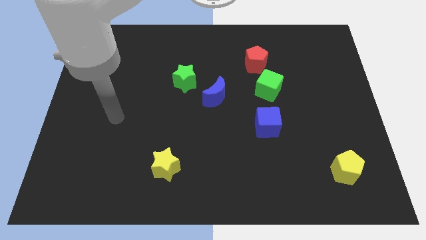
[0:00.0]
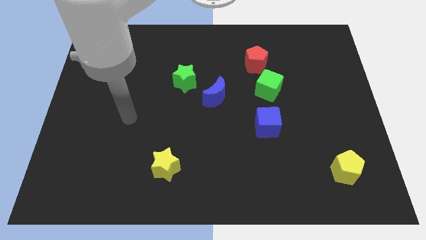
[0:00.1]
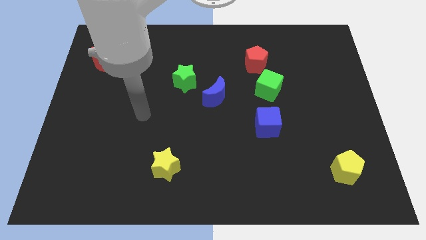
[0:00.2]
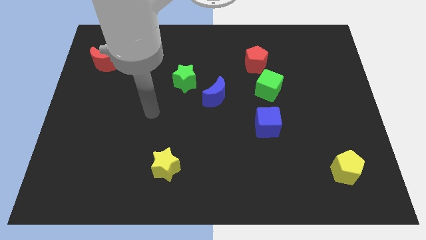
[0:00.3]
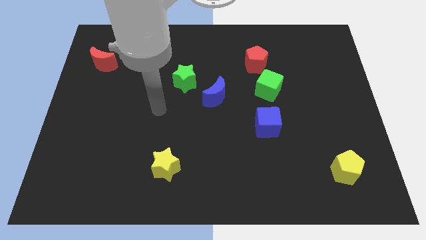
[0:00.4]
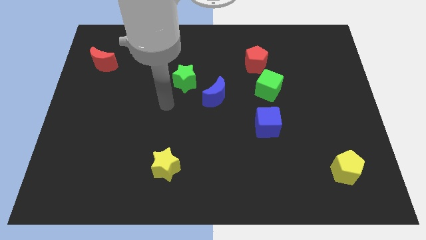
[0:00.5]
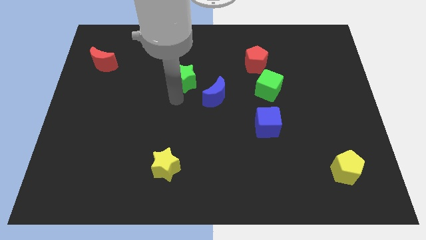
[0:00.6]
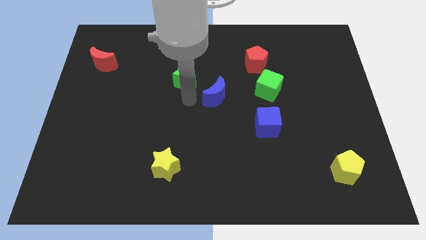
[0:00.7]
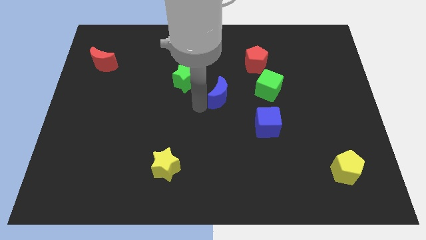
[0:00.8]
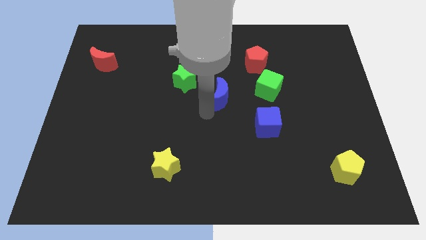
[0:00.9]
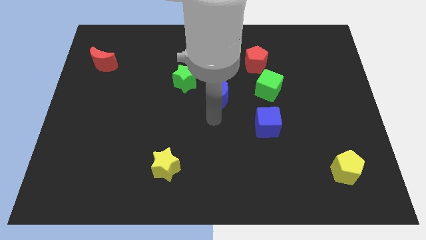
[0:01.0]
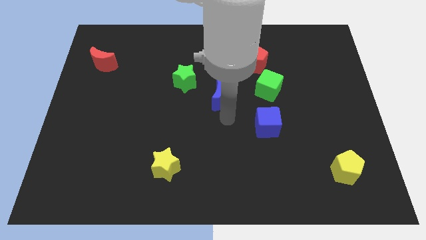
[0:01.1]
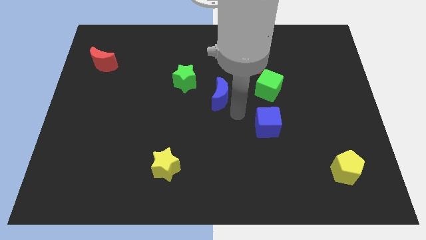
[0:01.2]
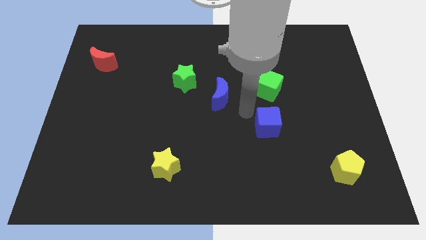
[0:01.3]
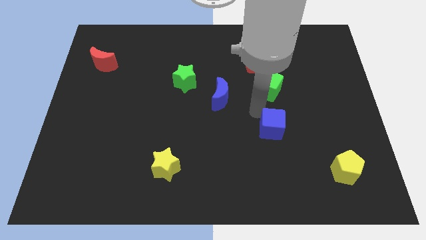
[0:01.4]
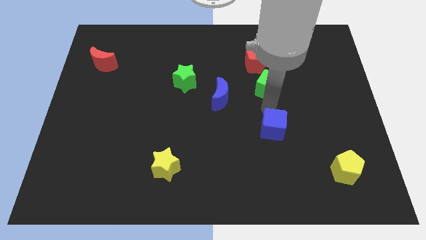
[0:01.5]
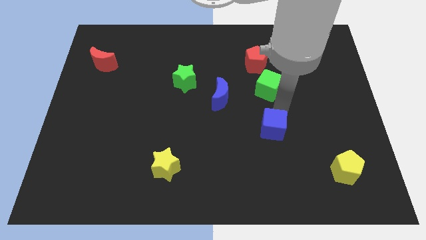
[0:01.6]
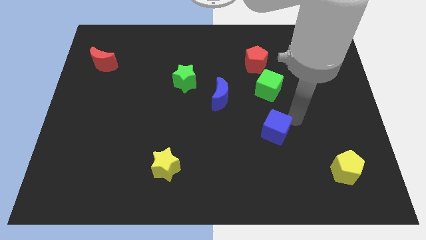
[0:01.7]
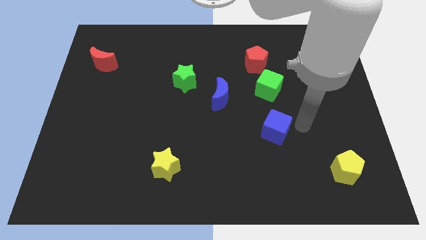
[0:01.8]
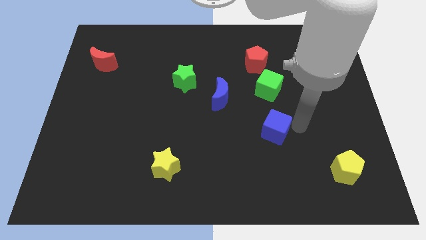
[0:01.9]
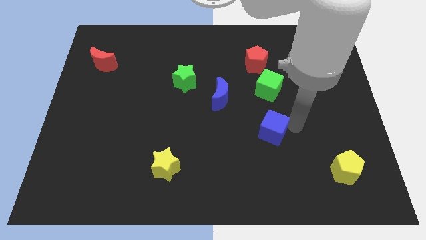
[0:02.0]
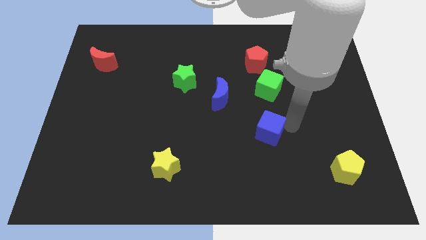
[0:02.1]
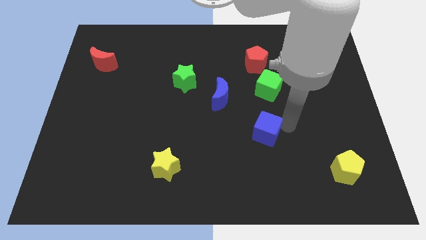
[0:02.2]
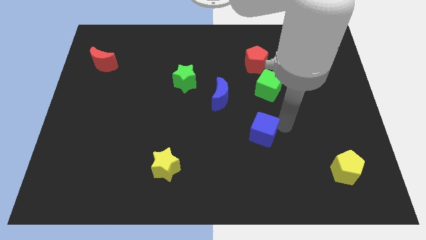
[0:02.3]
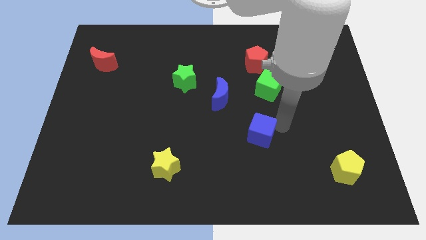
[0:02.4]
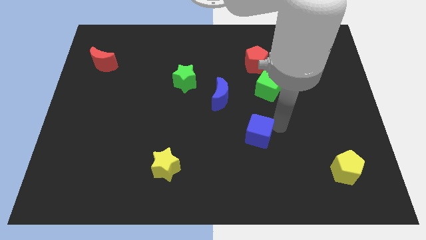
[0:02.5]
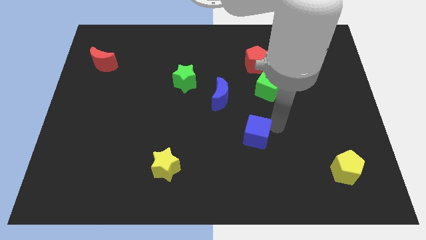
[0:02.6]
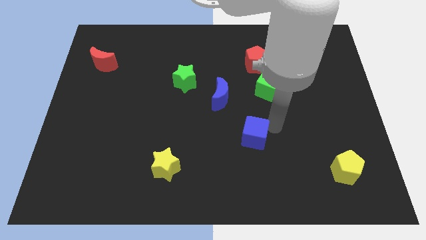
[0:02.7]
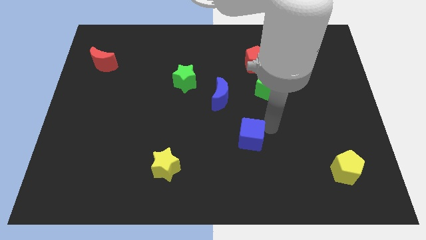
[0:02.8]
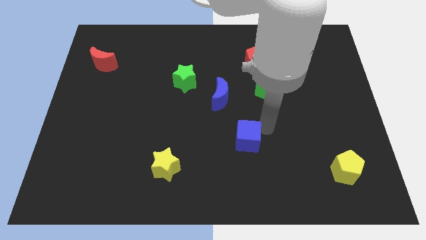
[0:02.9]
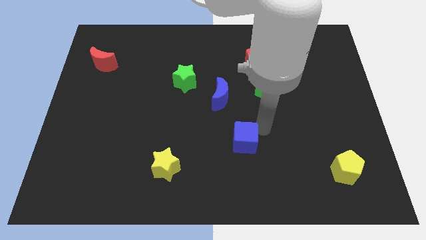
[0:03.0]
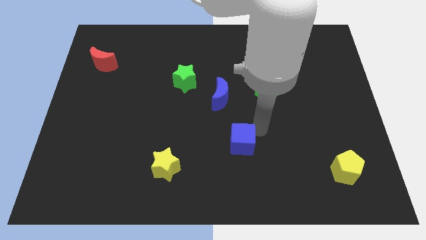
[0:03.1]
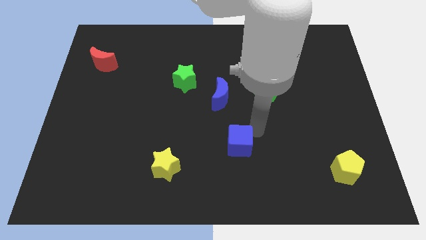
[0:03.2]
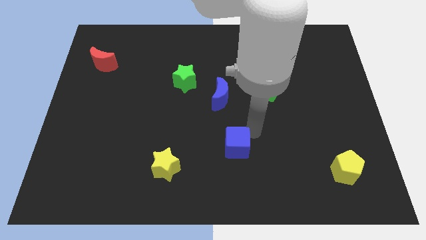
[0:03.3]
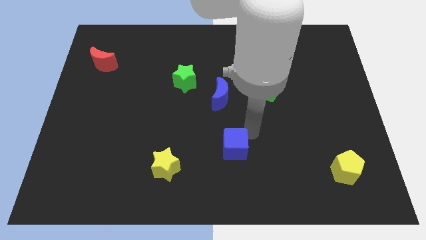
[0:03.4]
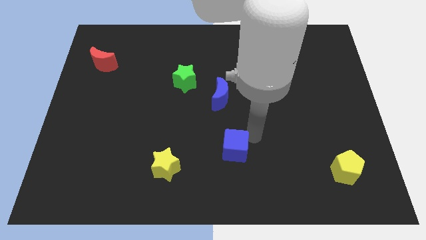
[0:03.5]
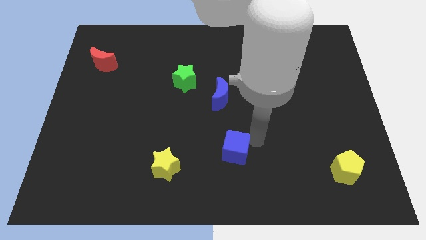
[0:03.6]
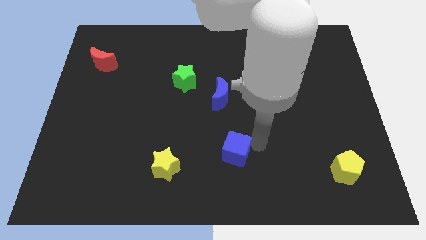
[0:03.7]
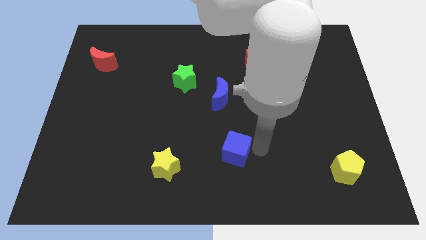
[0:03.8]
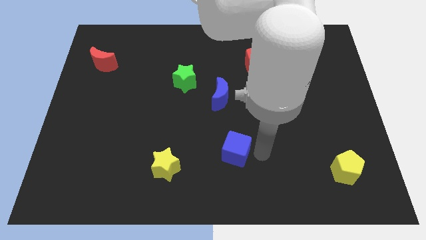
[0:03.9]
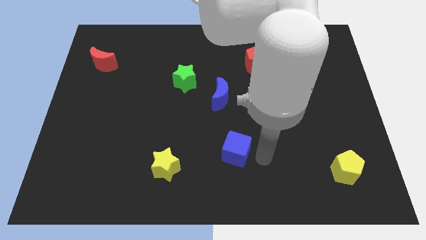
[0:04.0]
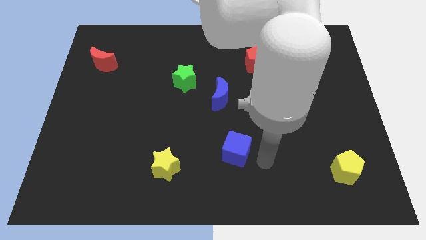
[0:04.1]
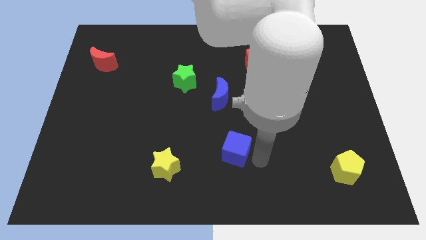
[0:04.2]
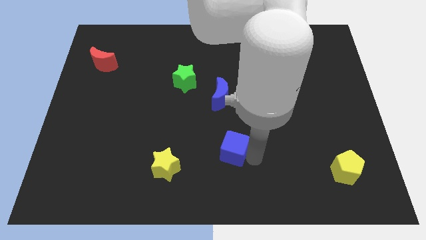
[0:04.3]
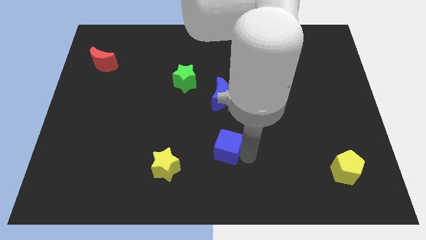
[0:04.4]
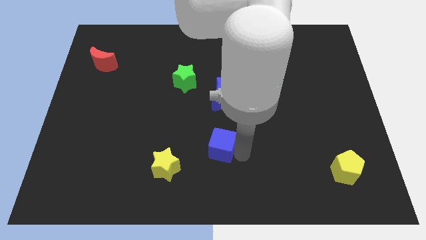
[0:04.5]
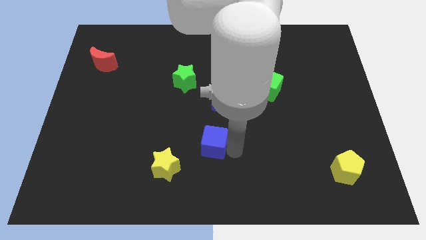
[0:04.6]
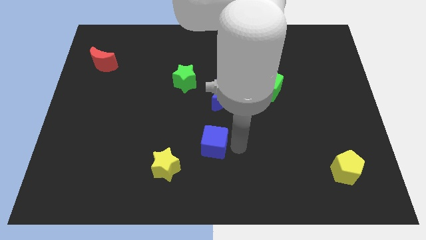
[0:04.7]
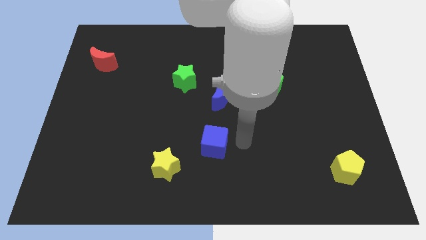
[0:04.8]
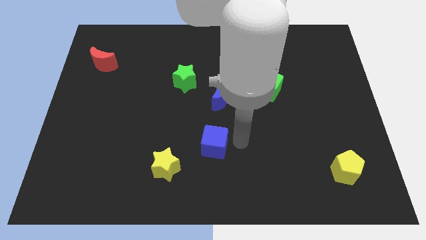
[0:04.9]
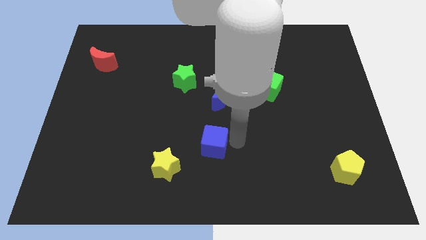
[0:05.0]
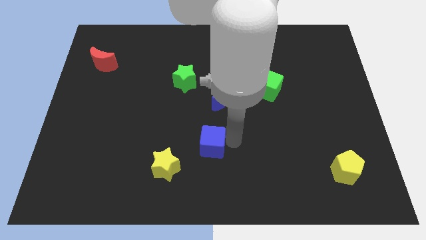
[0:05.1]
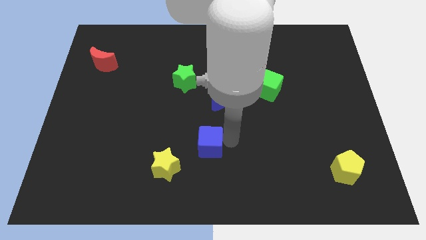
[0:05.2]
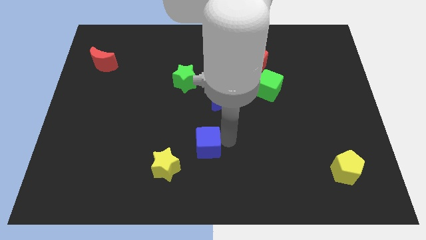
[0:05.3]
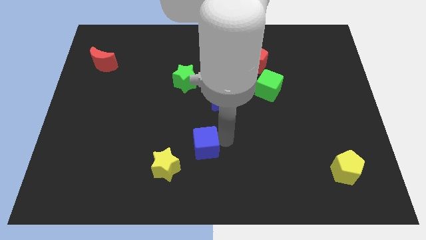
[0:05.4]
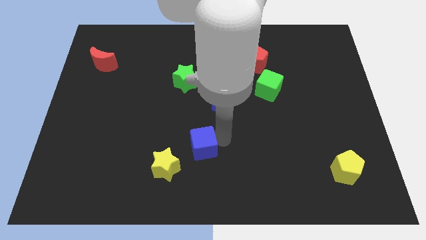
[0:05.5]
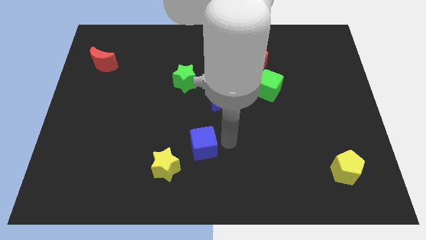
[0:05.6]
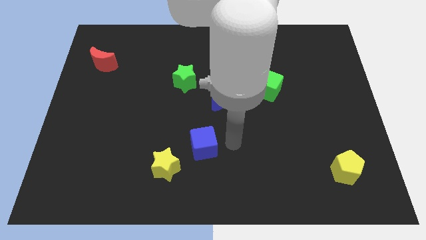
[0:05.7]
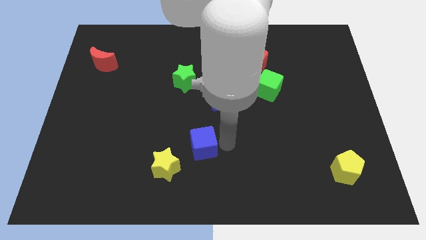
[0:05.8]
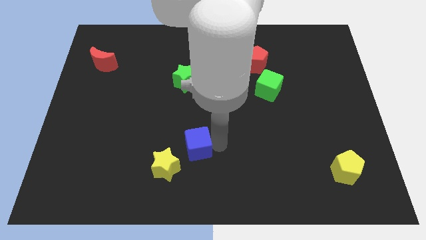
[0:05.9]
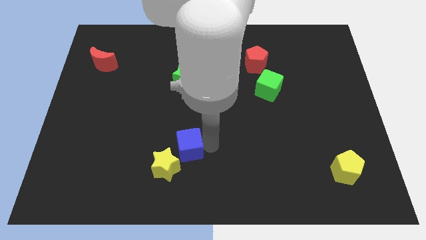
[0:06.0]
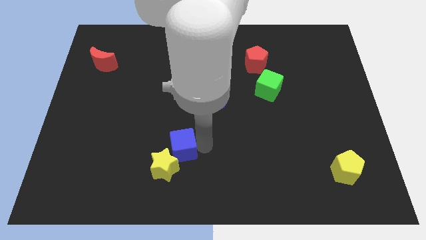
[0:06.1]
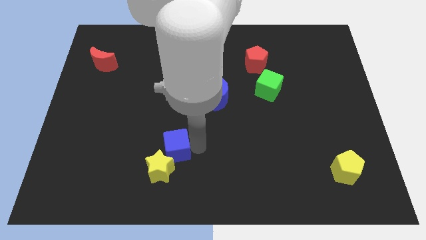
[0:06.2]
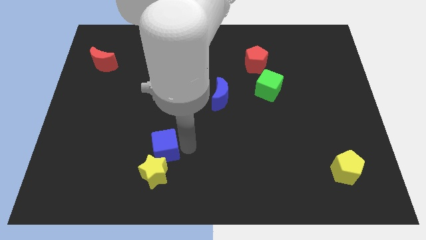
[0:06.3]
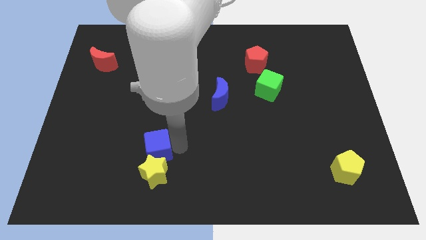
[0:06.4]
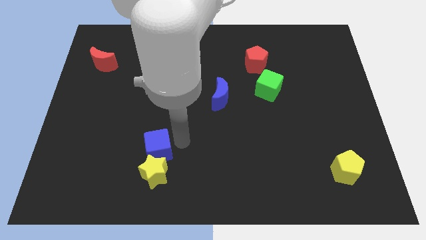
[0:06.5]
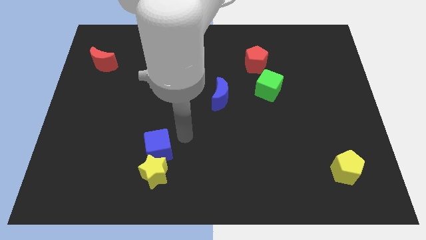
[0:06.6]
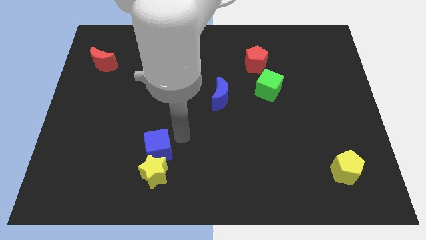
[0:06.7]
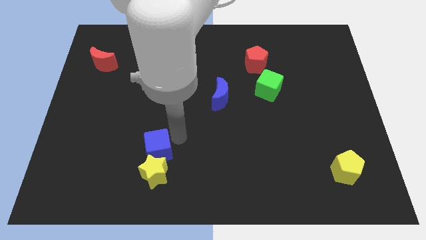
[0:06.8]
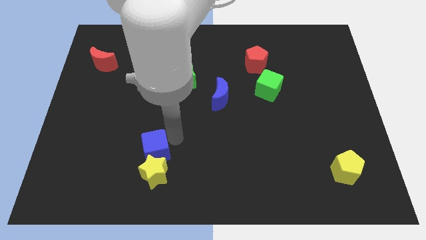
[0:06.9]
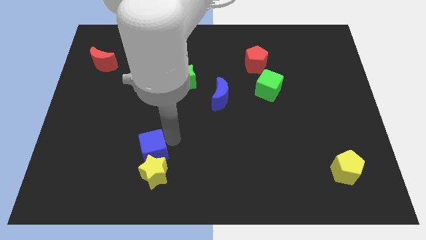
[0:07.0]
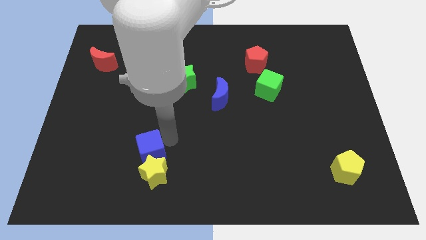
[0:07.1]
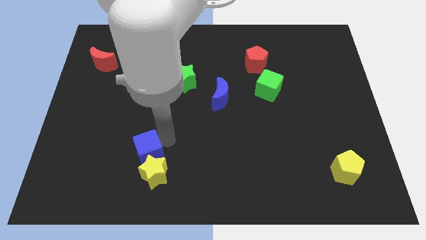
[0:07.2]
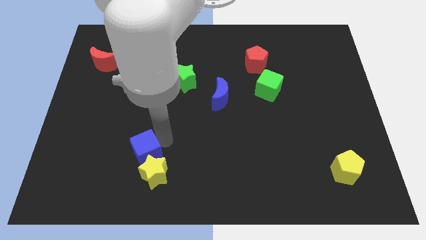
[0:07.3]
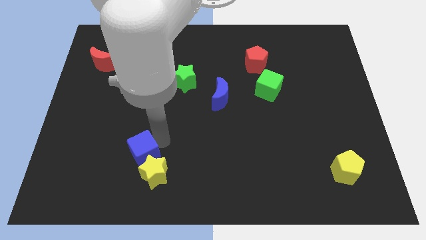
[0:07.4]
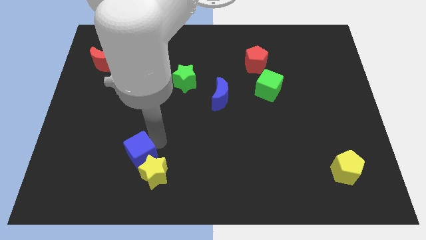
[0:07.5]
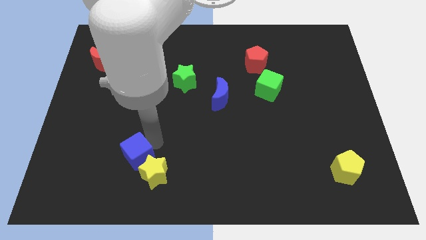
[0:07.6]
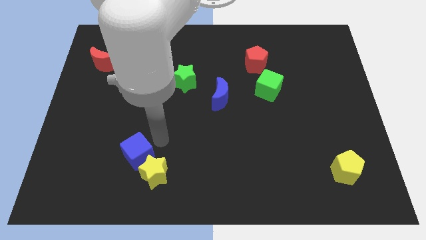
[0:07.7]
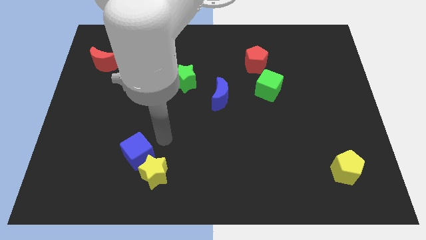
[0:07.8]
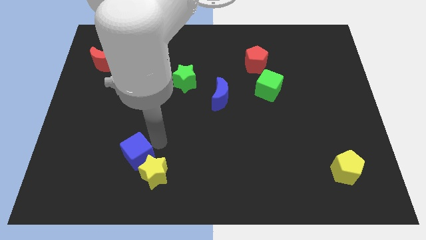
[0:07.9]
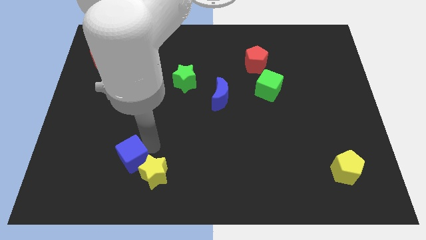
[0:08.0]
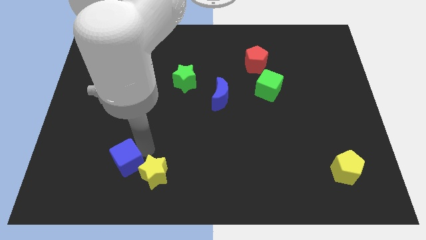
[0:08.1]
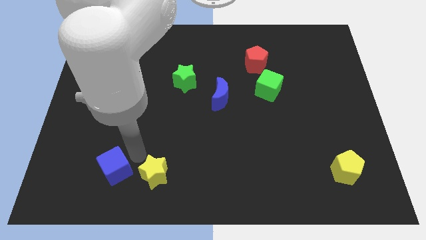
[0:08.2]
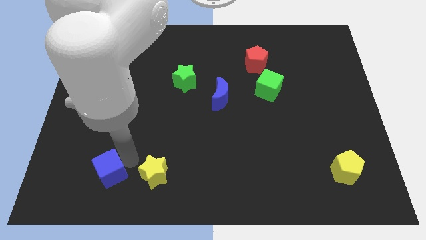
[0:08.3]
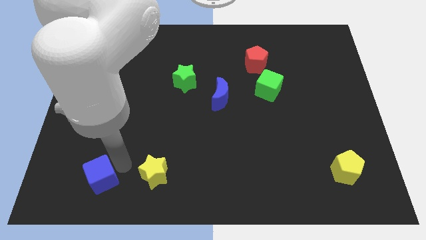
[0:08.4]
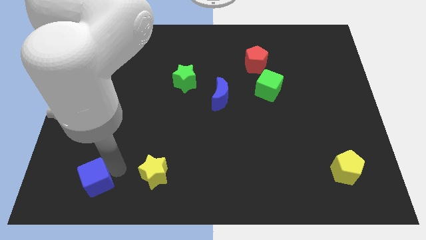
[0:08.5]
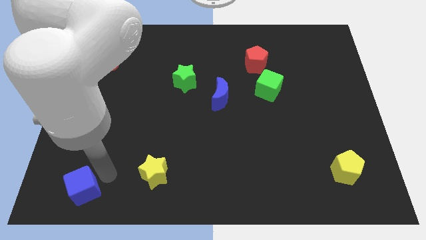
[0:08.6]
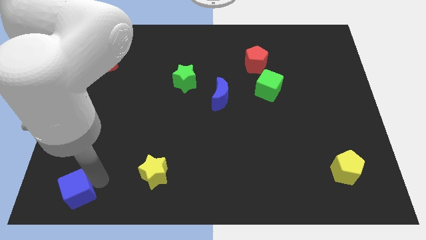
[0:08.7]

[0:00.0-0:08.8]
push the blue cube to the bottom left of the board
